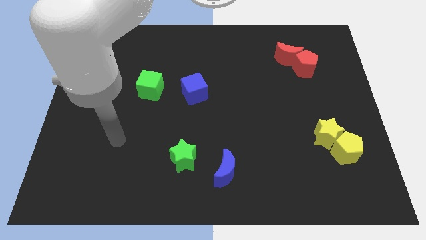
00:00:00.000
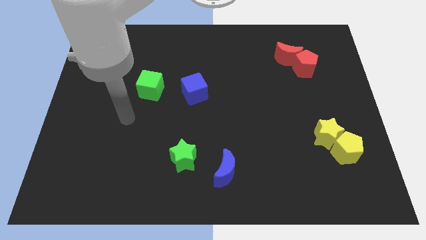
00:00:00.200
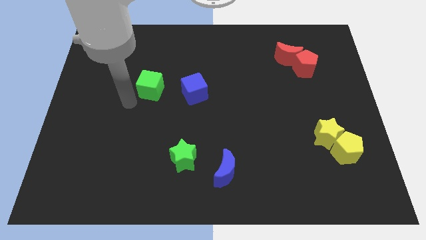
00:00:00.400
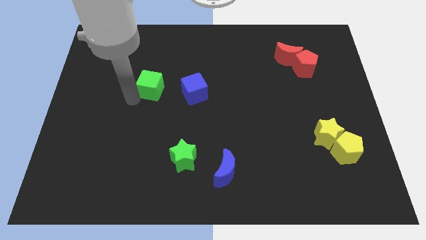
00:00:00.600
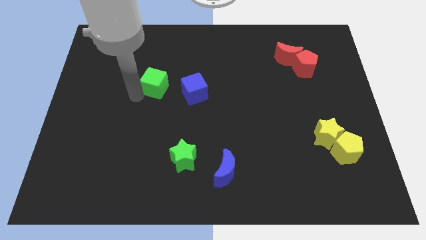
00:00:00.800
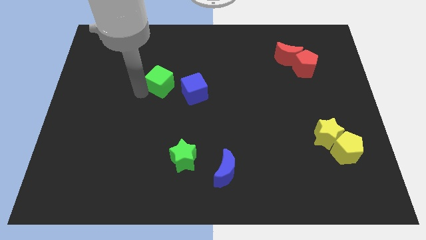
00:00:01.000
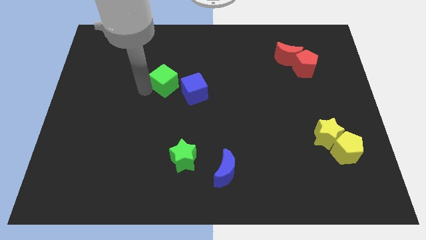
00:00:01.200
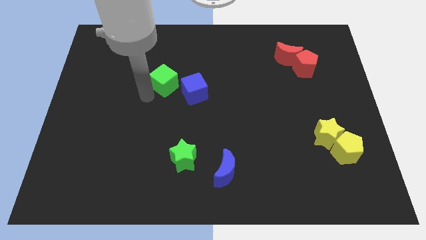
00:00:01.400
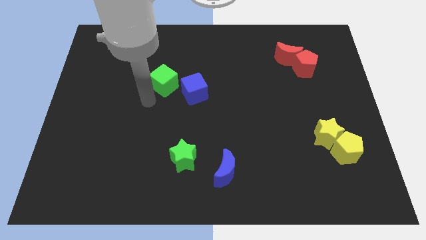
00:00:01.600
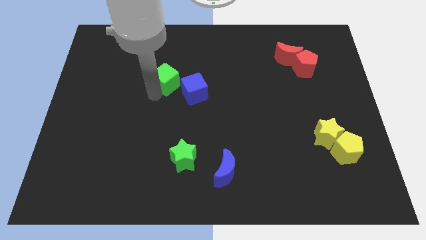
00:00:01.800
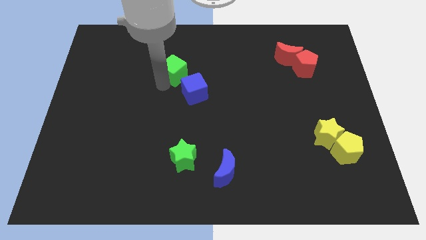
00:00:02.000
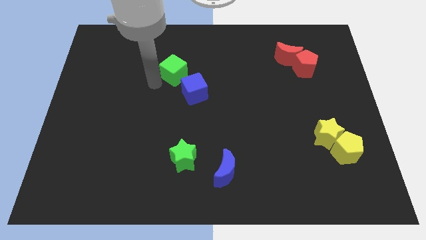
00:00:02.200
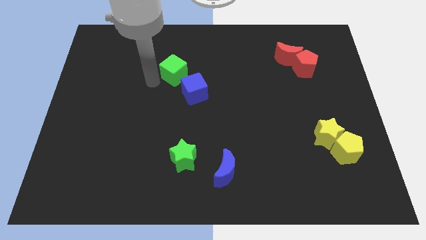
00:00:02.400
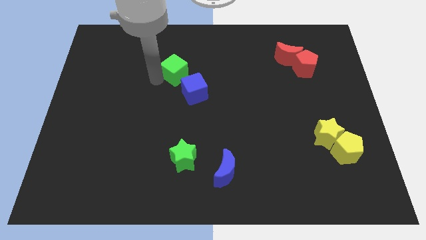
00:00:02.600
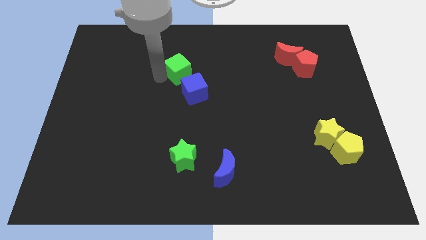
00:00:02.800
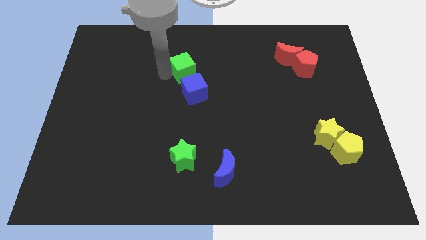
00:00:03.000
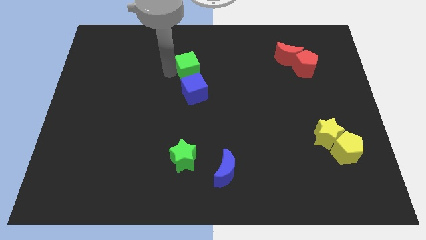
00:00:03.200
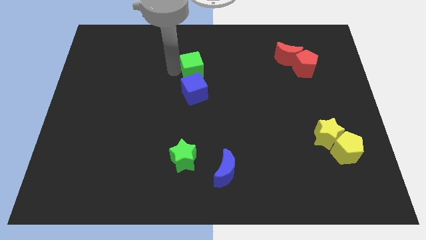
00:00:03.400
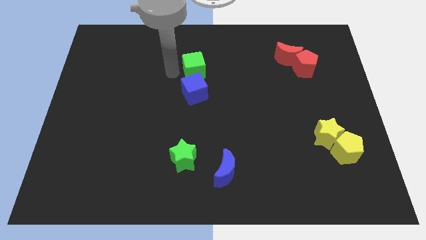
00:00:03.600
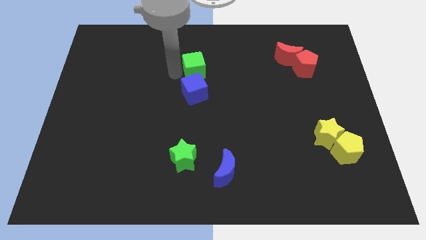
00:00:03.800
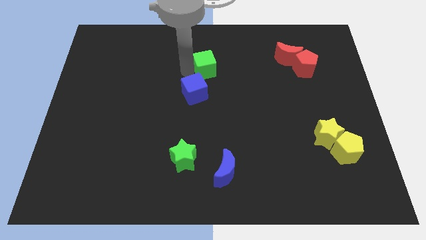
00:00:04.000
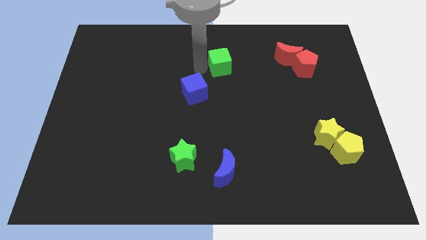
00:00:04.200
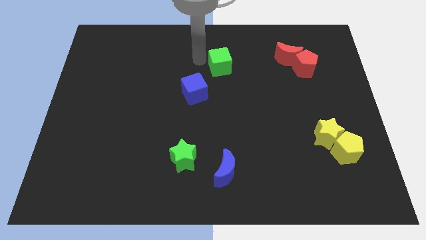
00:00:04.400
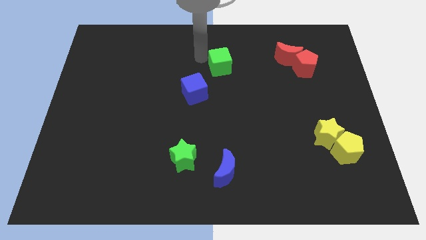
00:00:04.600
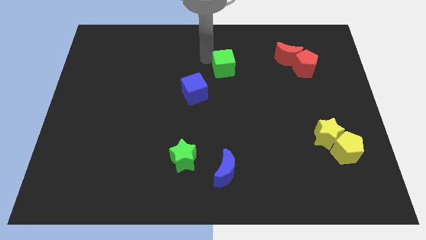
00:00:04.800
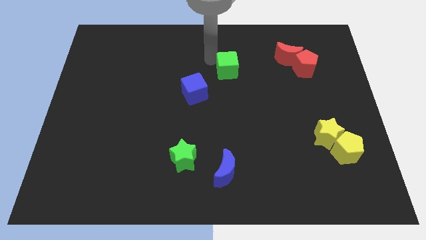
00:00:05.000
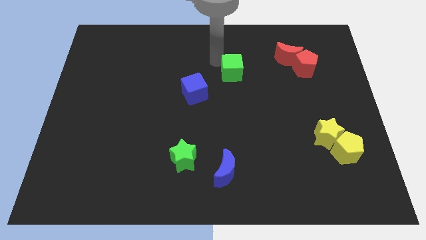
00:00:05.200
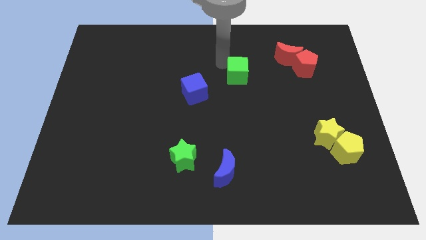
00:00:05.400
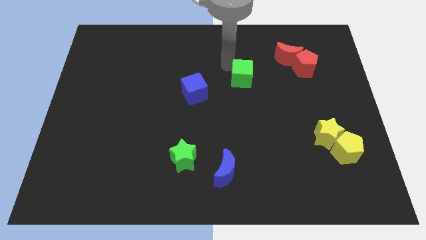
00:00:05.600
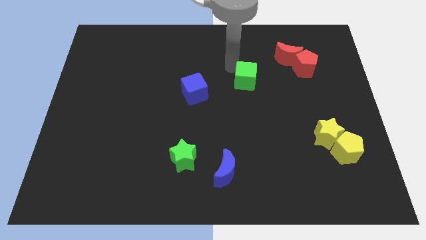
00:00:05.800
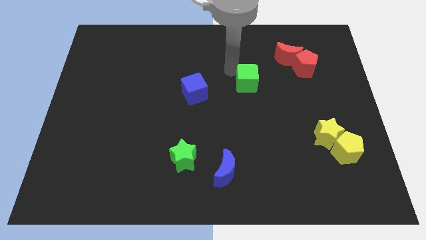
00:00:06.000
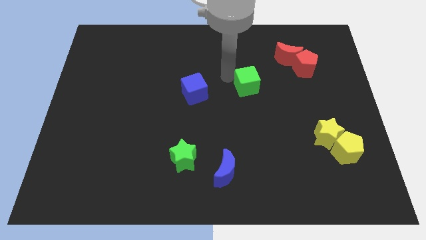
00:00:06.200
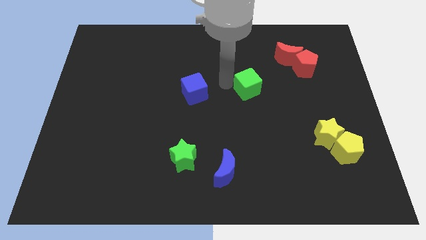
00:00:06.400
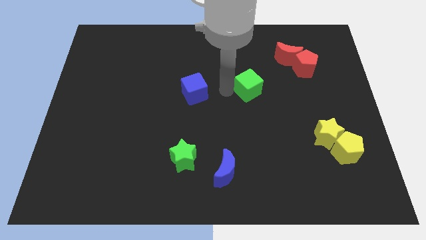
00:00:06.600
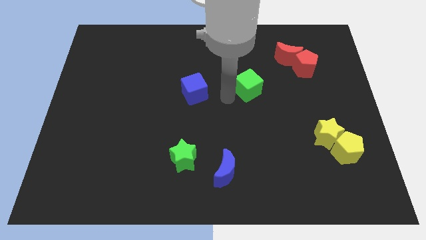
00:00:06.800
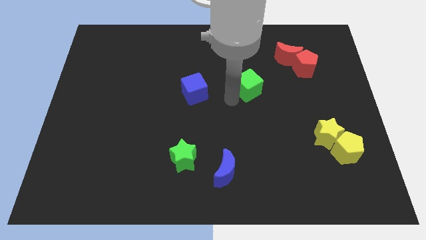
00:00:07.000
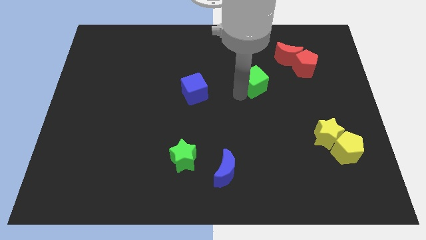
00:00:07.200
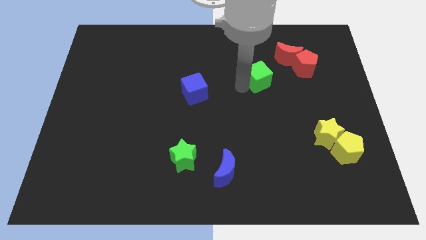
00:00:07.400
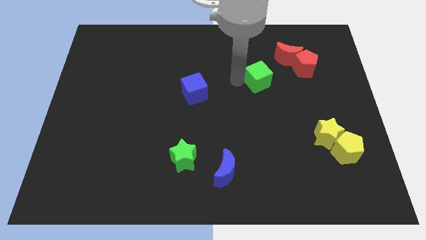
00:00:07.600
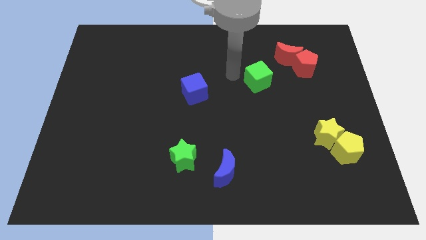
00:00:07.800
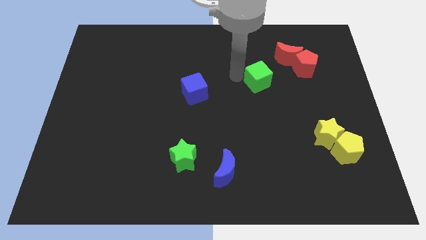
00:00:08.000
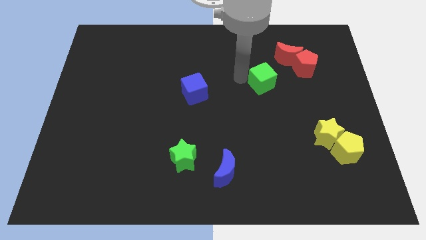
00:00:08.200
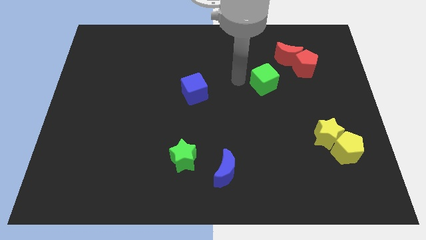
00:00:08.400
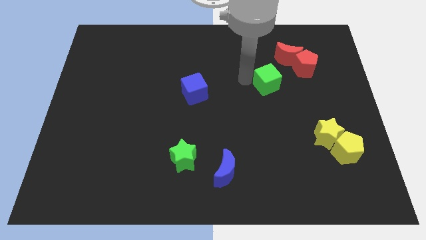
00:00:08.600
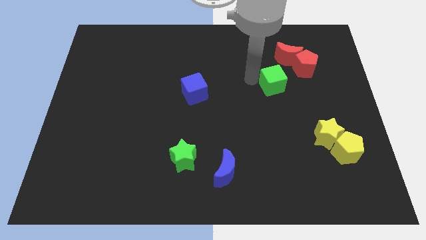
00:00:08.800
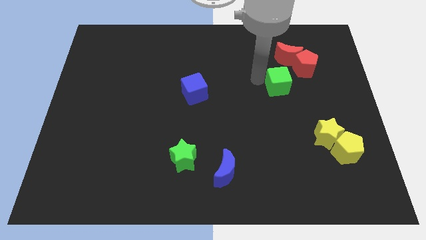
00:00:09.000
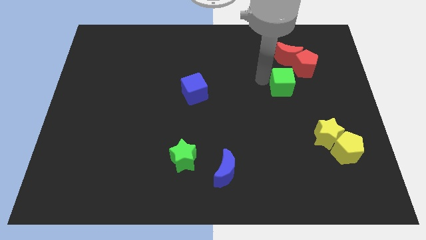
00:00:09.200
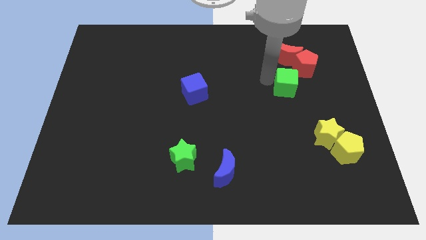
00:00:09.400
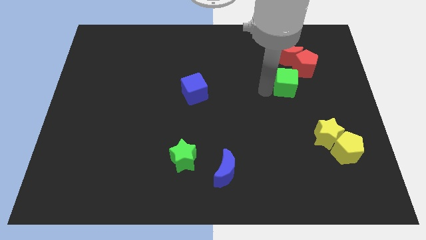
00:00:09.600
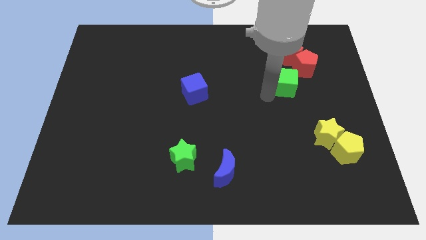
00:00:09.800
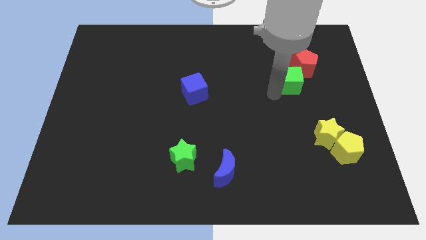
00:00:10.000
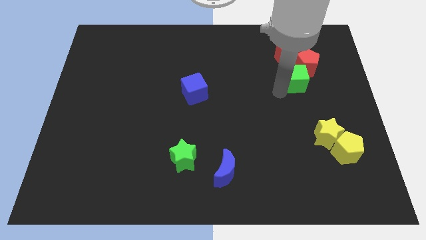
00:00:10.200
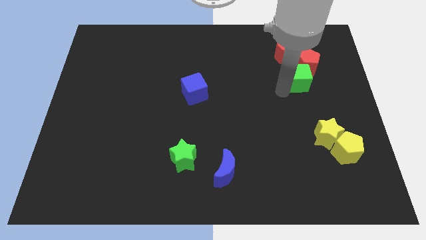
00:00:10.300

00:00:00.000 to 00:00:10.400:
put the green cube to the bottom right of the red moon

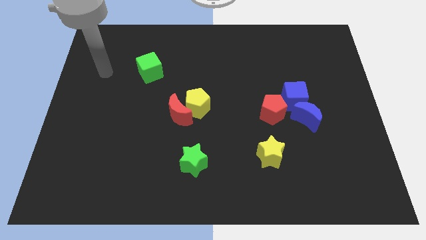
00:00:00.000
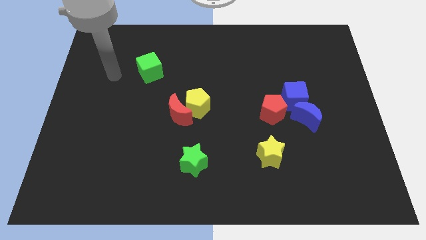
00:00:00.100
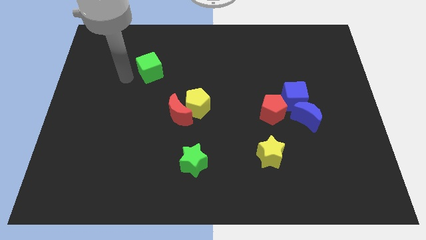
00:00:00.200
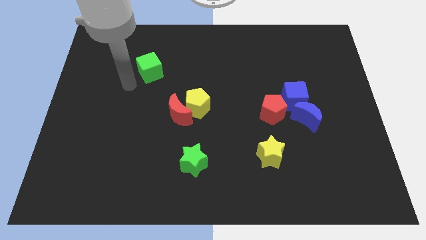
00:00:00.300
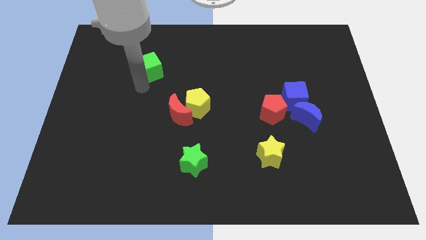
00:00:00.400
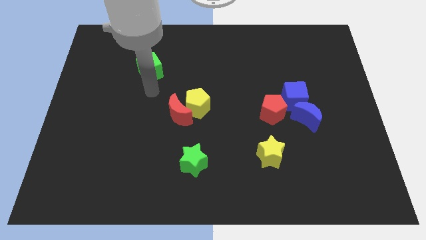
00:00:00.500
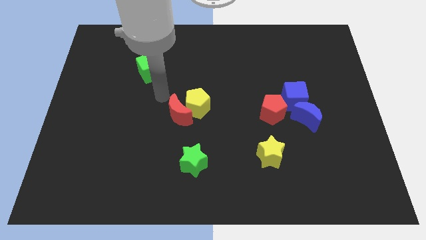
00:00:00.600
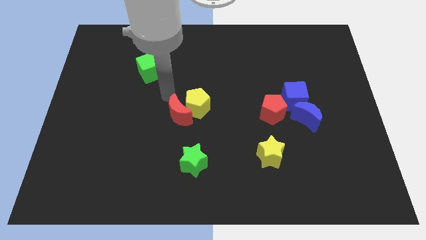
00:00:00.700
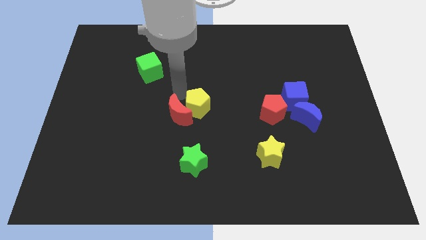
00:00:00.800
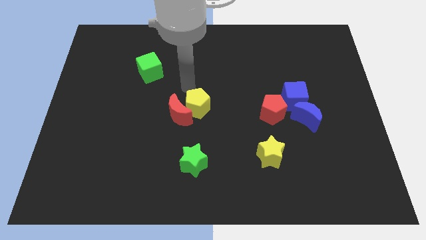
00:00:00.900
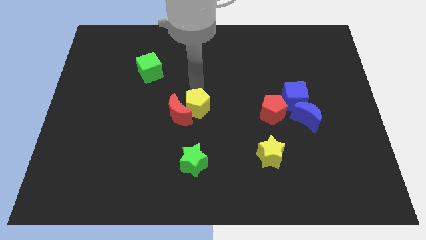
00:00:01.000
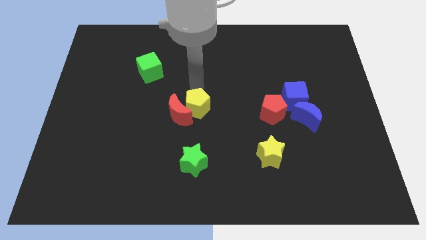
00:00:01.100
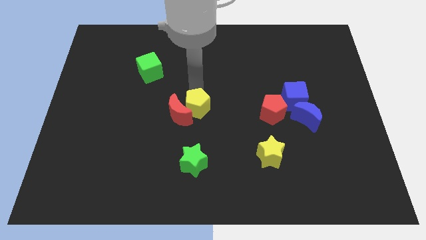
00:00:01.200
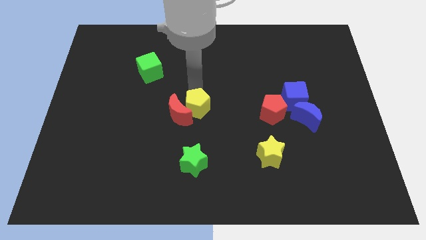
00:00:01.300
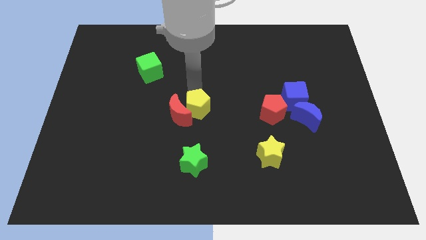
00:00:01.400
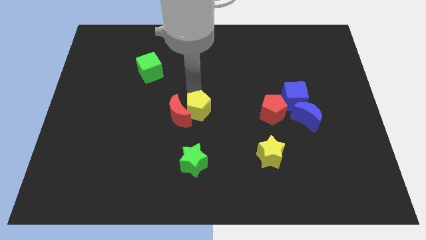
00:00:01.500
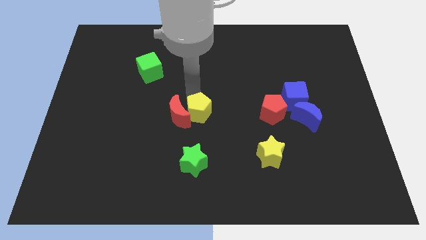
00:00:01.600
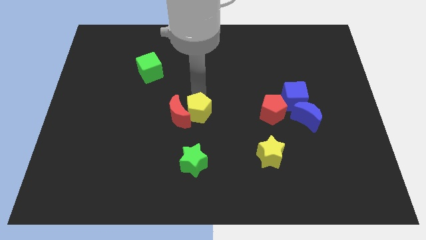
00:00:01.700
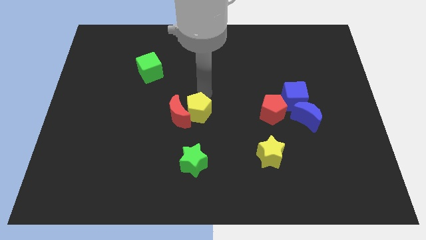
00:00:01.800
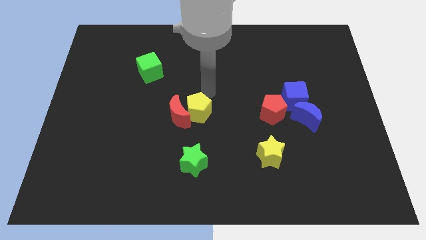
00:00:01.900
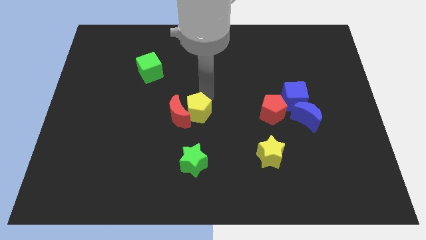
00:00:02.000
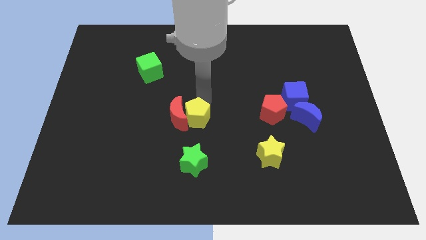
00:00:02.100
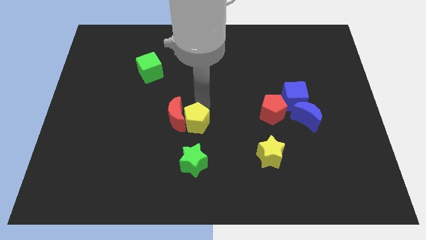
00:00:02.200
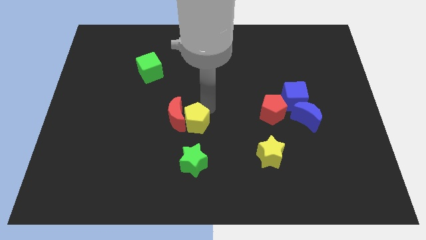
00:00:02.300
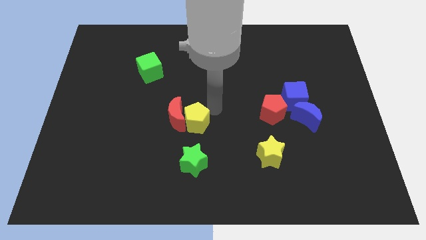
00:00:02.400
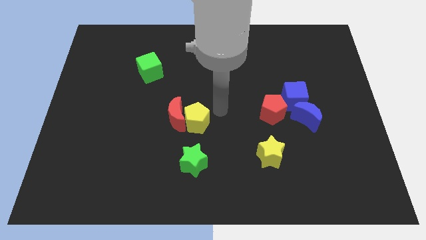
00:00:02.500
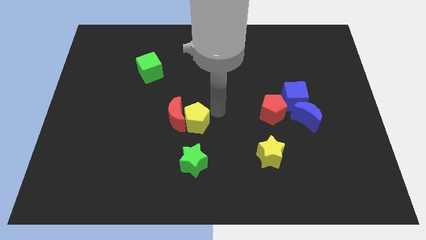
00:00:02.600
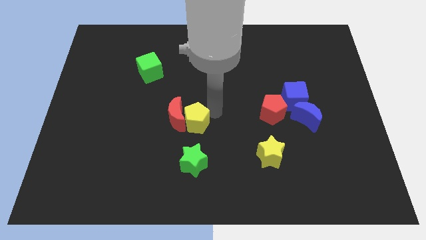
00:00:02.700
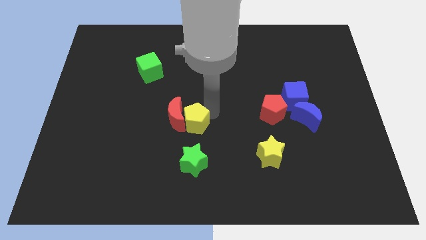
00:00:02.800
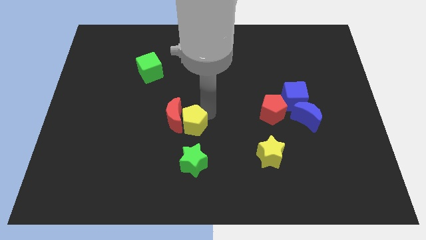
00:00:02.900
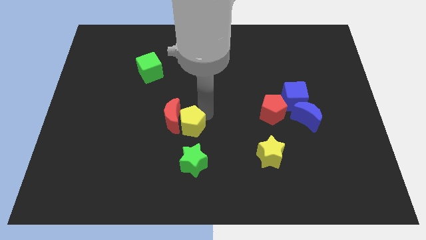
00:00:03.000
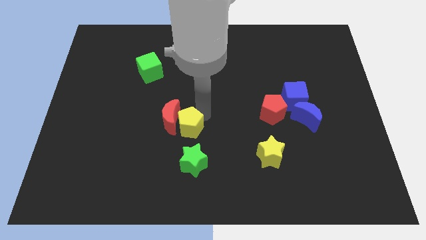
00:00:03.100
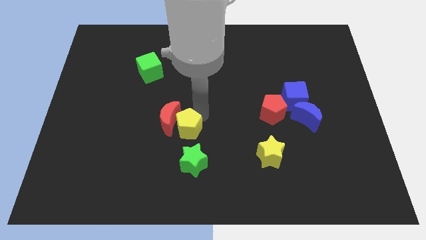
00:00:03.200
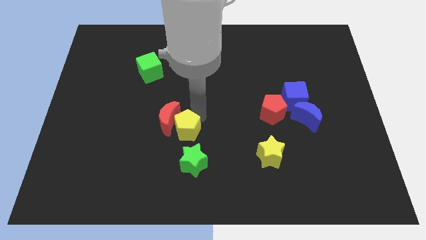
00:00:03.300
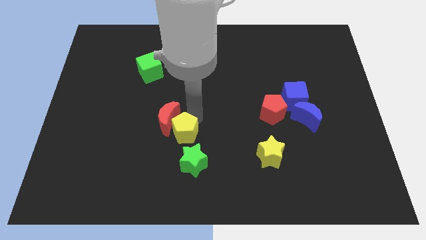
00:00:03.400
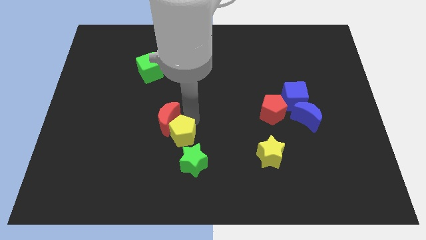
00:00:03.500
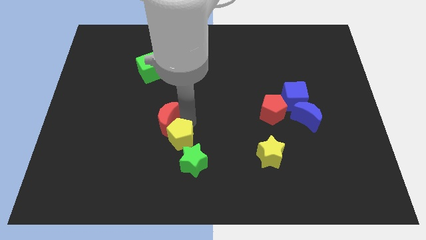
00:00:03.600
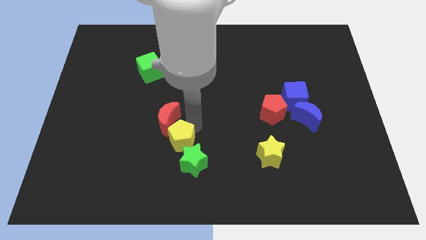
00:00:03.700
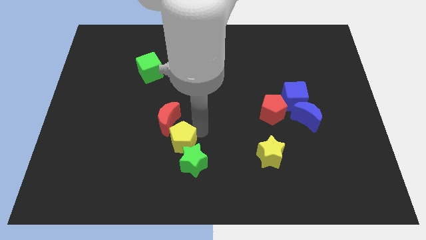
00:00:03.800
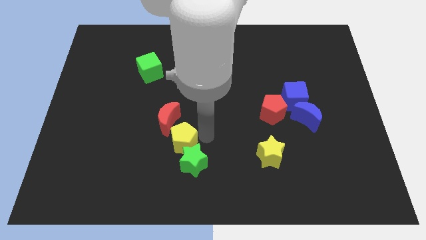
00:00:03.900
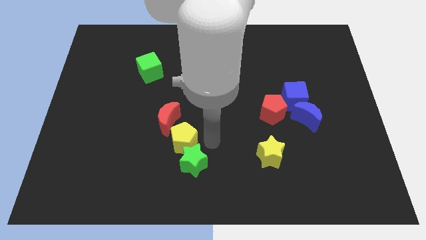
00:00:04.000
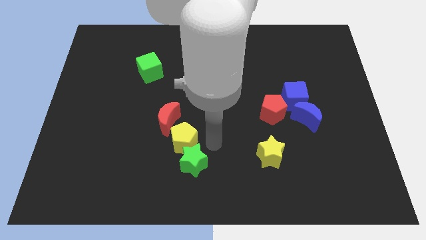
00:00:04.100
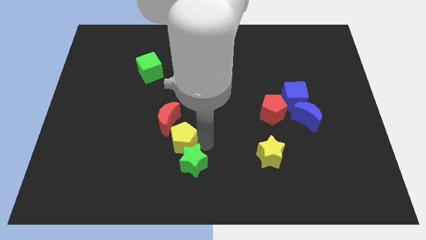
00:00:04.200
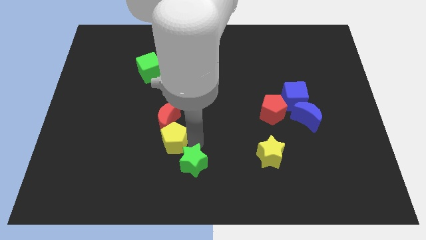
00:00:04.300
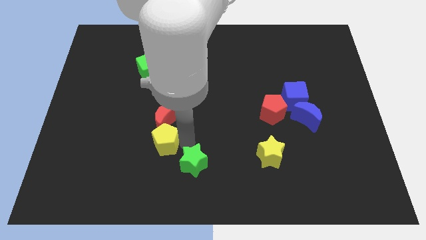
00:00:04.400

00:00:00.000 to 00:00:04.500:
put the yellow pentagon diagonally down and to the left of the red moon
